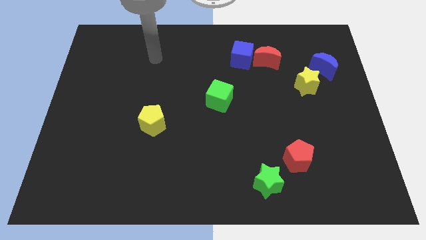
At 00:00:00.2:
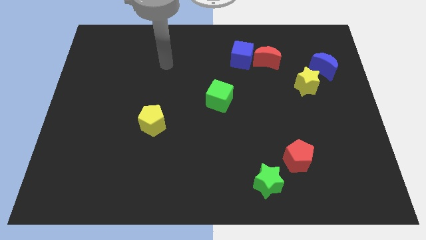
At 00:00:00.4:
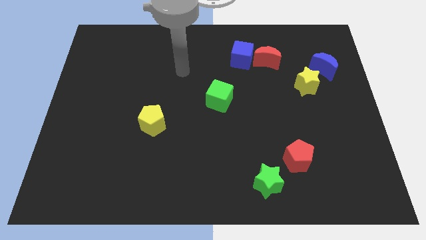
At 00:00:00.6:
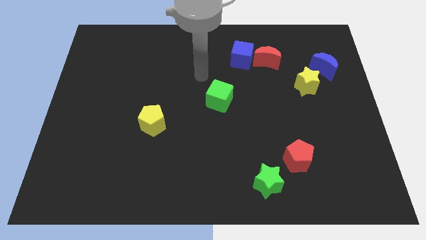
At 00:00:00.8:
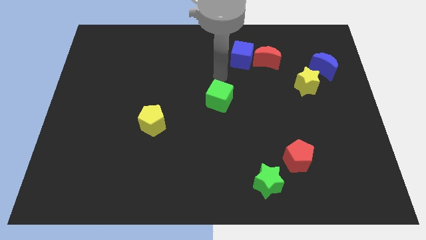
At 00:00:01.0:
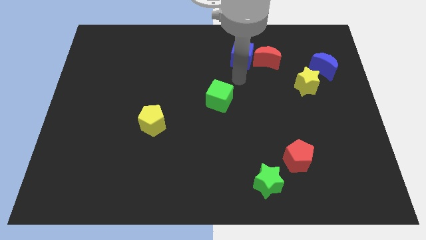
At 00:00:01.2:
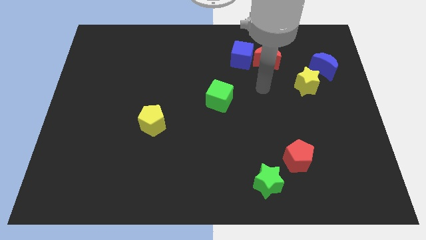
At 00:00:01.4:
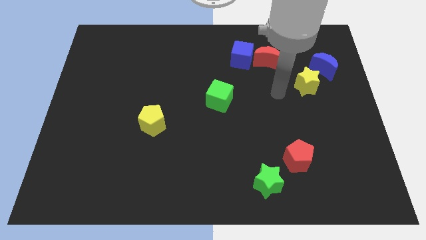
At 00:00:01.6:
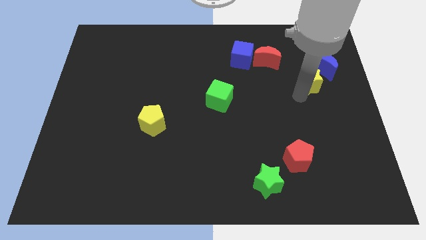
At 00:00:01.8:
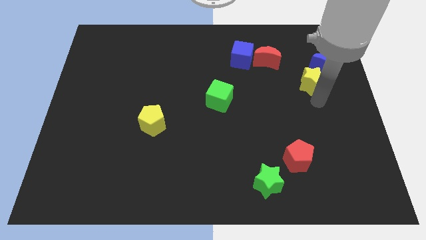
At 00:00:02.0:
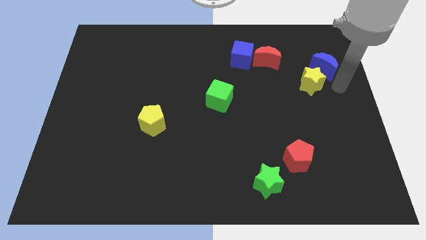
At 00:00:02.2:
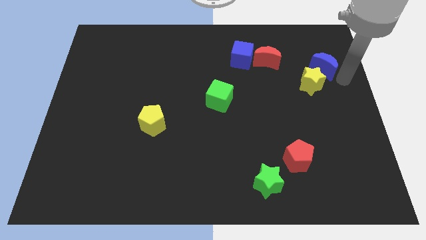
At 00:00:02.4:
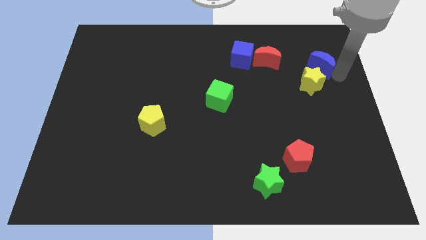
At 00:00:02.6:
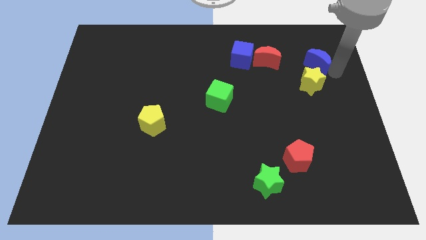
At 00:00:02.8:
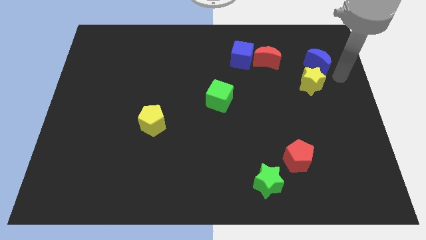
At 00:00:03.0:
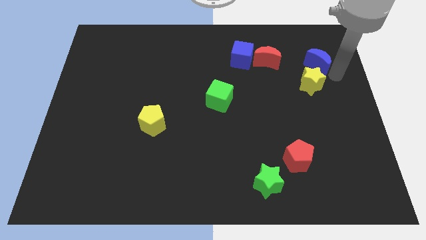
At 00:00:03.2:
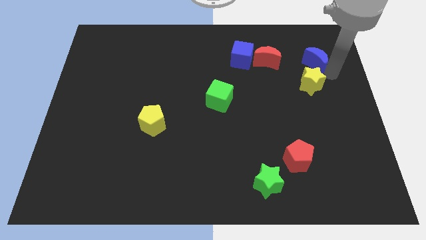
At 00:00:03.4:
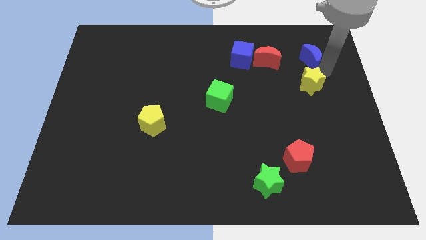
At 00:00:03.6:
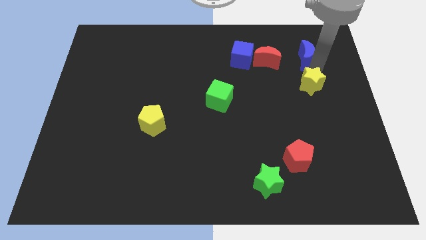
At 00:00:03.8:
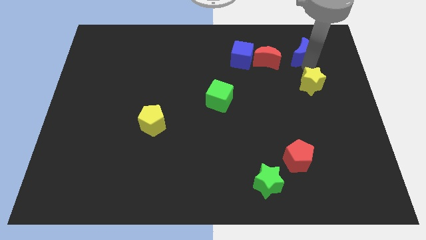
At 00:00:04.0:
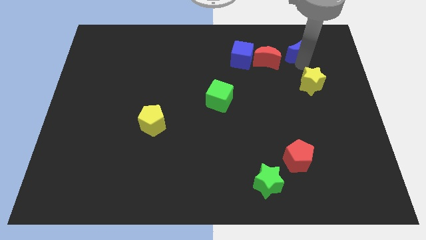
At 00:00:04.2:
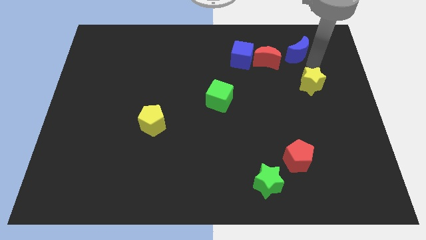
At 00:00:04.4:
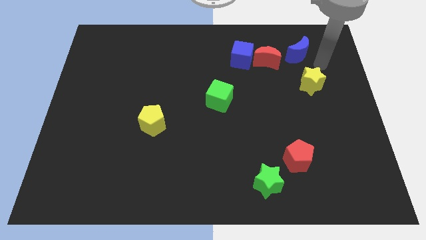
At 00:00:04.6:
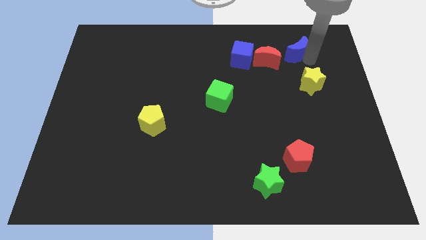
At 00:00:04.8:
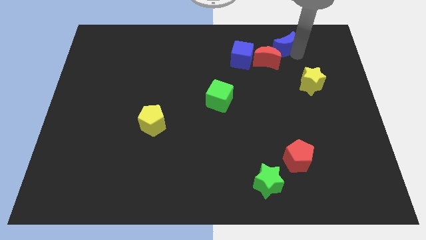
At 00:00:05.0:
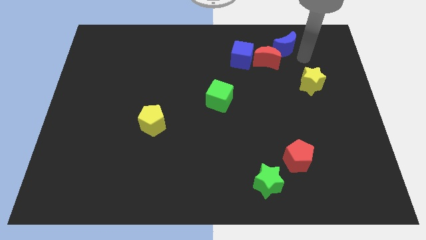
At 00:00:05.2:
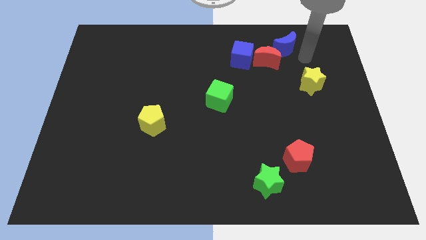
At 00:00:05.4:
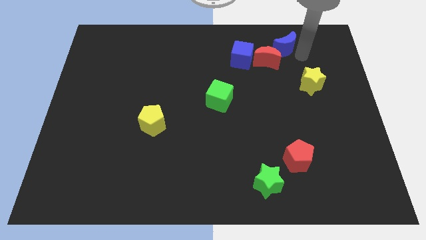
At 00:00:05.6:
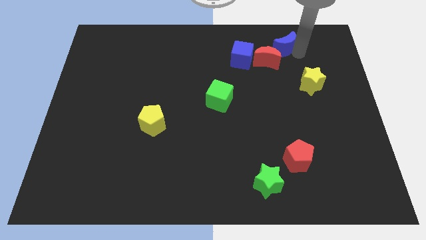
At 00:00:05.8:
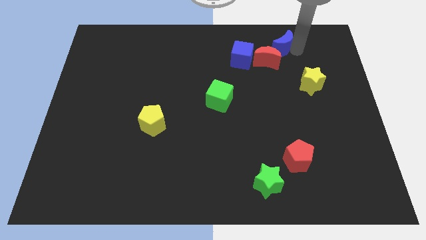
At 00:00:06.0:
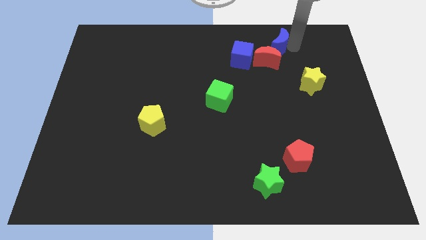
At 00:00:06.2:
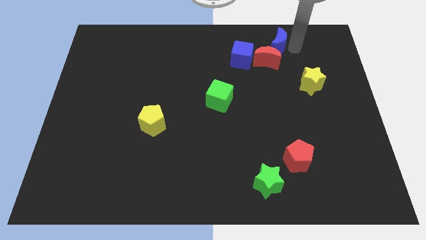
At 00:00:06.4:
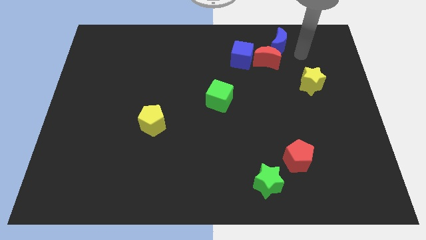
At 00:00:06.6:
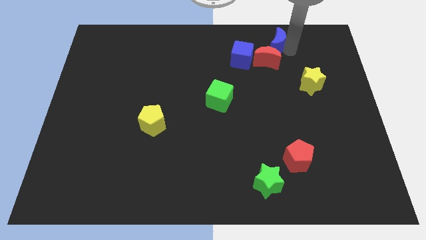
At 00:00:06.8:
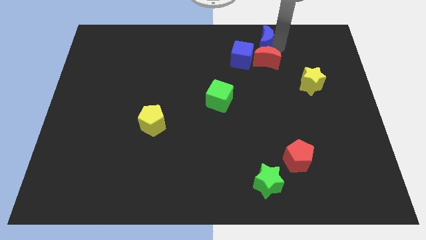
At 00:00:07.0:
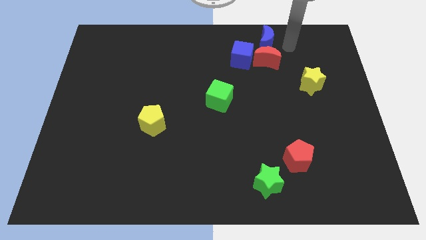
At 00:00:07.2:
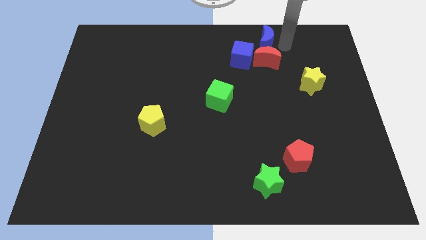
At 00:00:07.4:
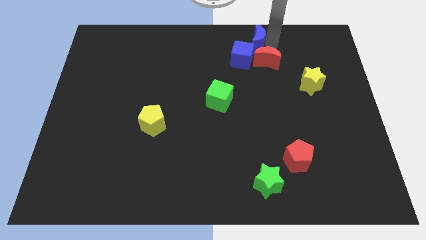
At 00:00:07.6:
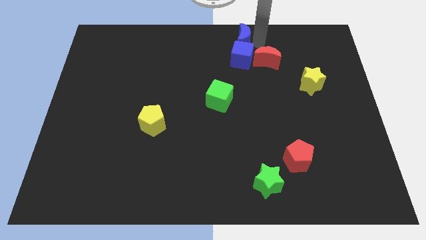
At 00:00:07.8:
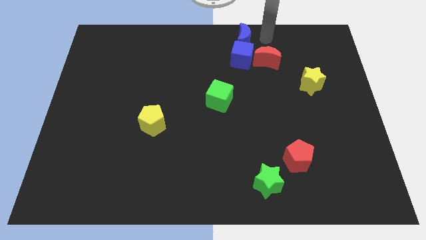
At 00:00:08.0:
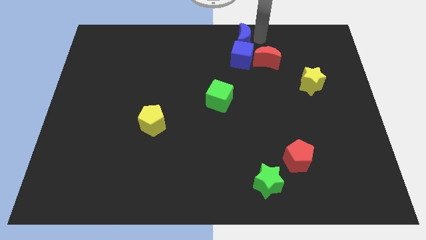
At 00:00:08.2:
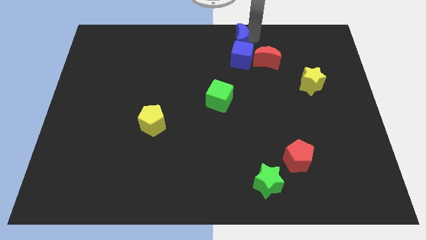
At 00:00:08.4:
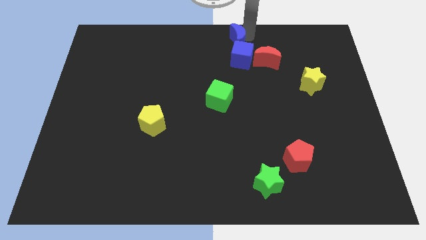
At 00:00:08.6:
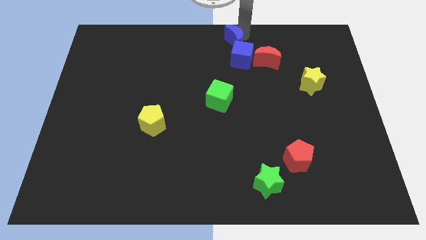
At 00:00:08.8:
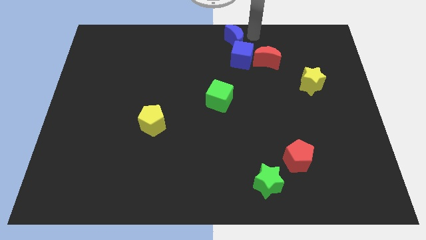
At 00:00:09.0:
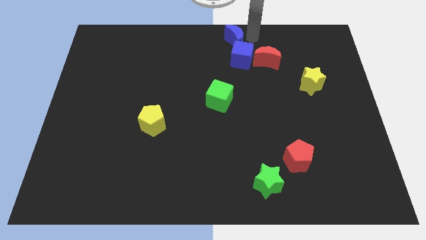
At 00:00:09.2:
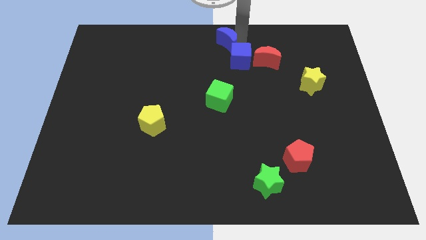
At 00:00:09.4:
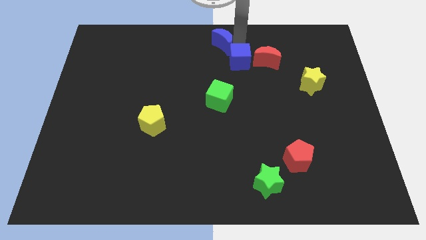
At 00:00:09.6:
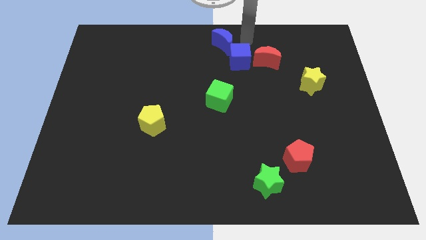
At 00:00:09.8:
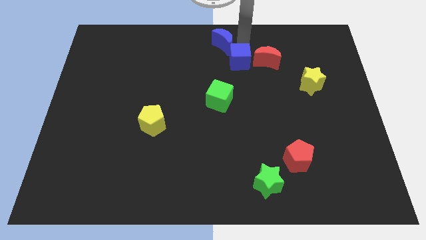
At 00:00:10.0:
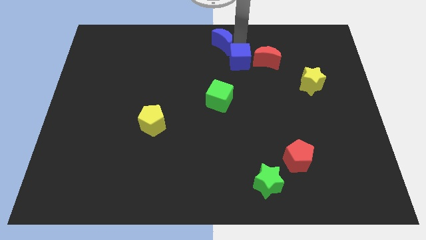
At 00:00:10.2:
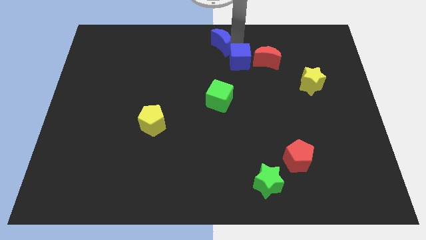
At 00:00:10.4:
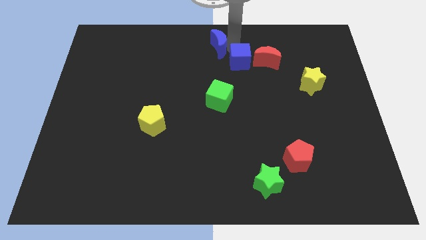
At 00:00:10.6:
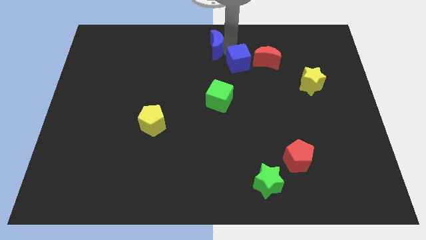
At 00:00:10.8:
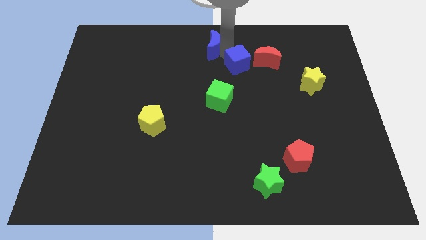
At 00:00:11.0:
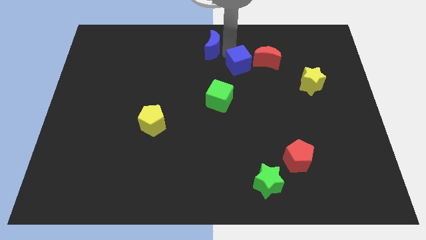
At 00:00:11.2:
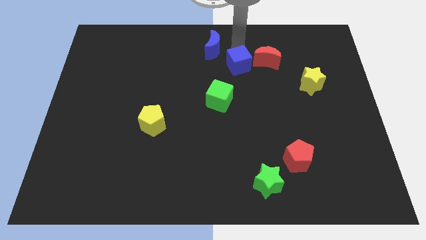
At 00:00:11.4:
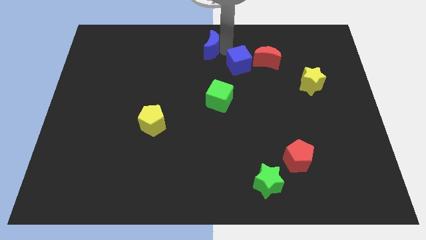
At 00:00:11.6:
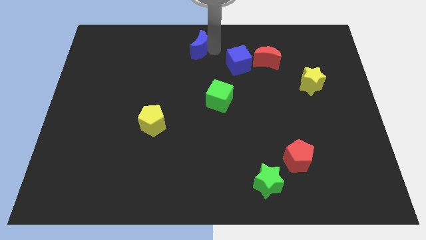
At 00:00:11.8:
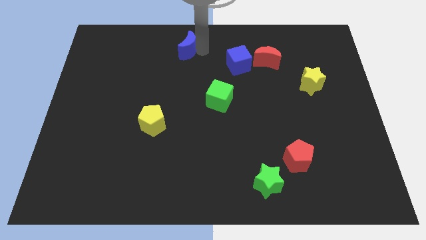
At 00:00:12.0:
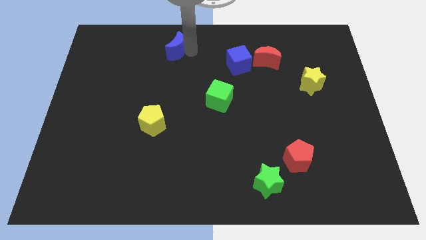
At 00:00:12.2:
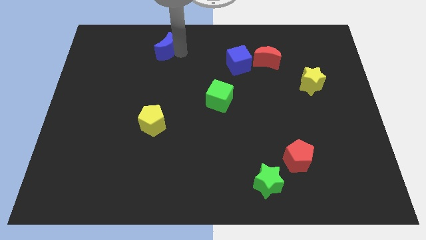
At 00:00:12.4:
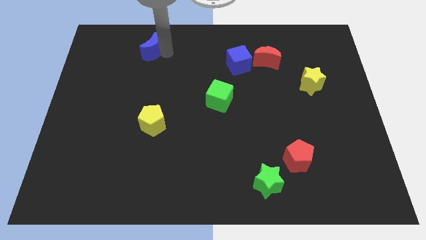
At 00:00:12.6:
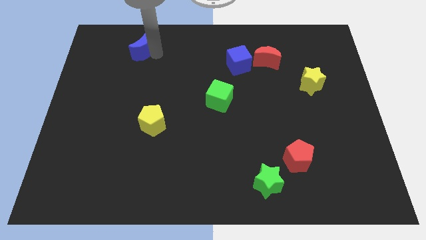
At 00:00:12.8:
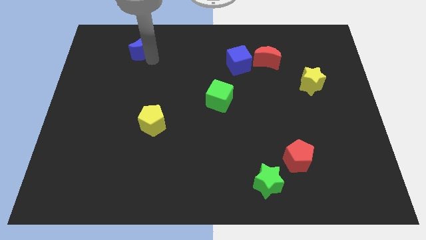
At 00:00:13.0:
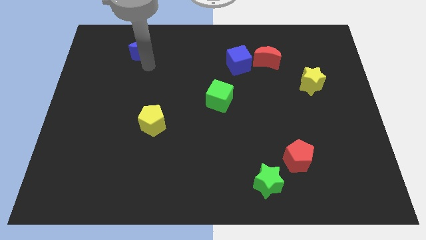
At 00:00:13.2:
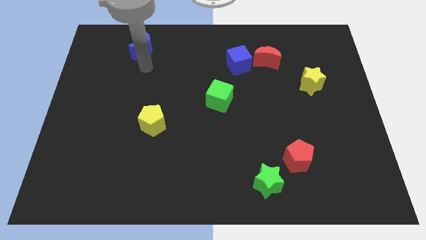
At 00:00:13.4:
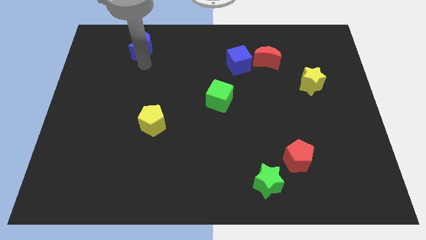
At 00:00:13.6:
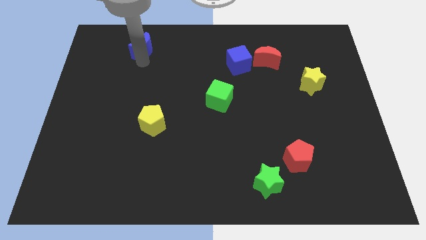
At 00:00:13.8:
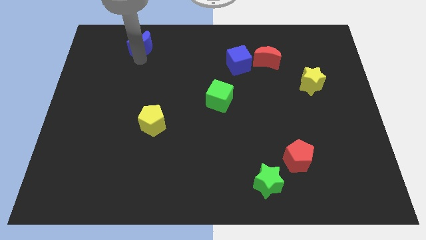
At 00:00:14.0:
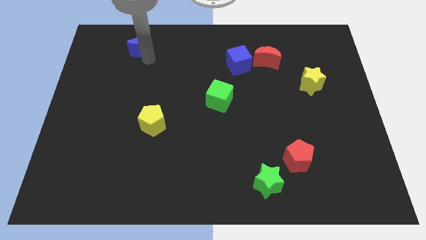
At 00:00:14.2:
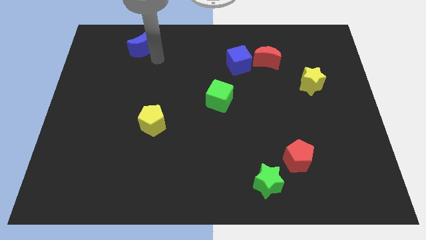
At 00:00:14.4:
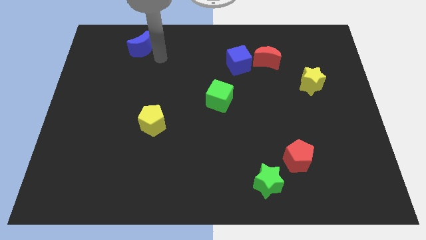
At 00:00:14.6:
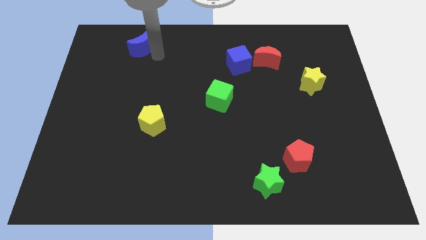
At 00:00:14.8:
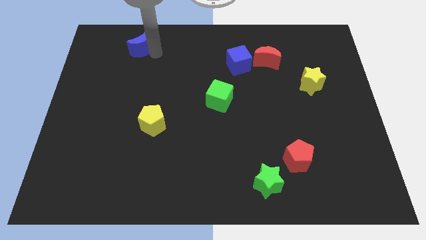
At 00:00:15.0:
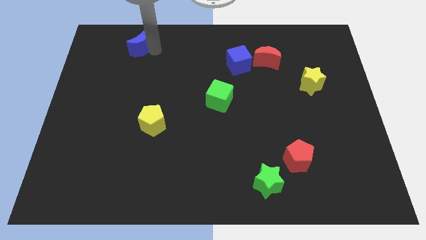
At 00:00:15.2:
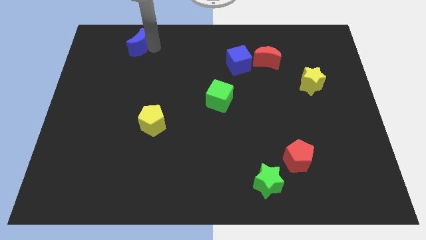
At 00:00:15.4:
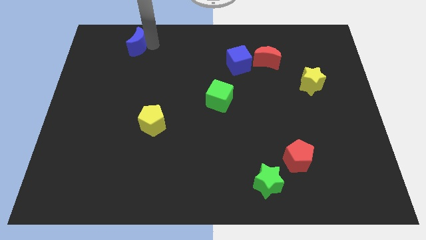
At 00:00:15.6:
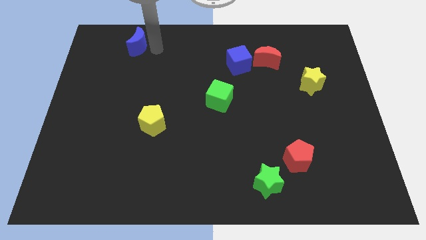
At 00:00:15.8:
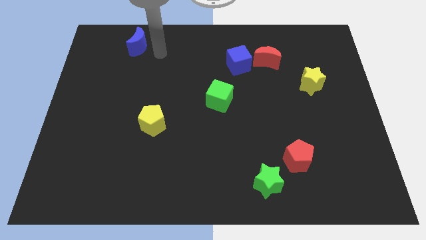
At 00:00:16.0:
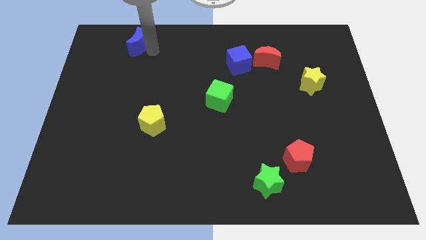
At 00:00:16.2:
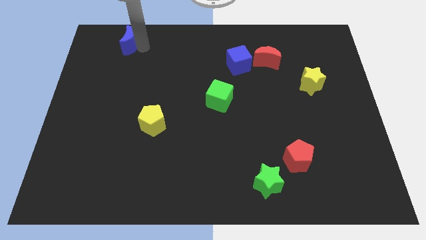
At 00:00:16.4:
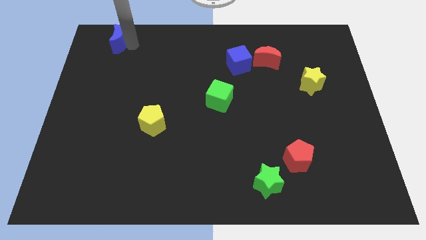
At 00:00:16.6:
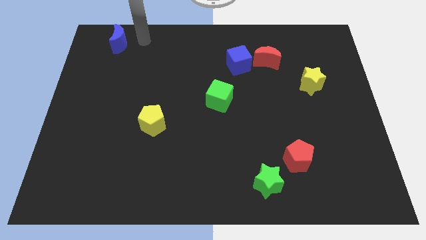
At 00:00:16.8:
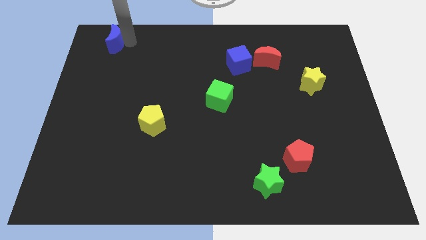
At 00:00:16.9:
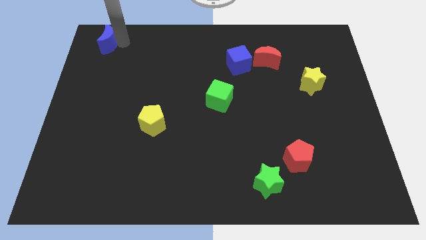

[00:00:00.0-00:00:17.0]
put the blue moon to the top left of the board
